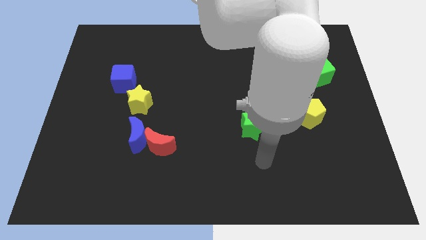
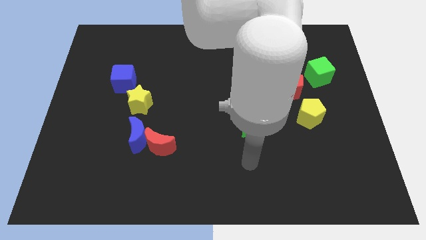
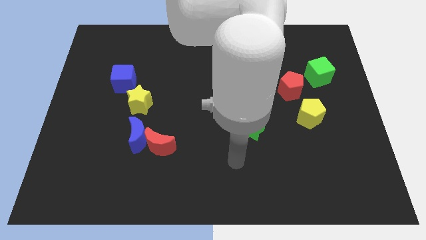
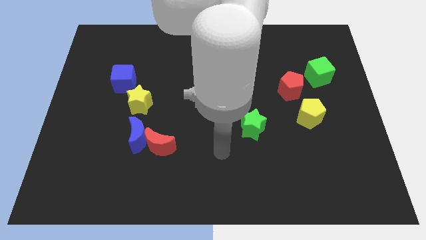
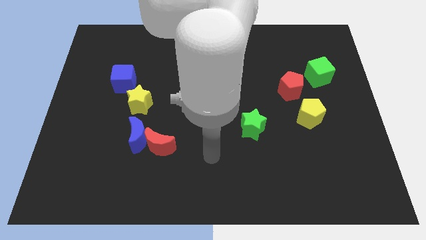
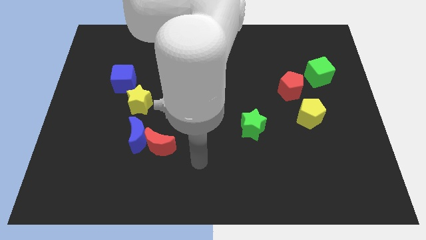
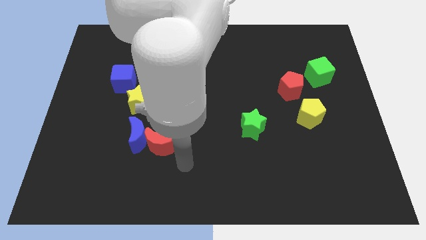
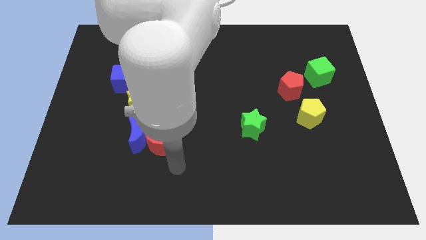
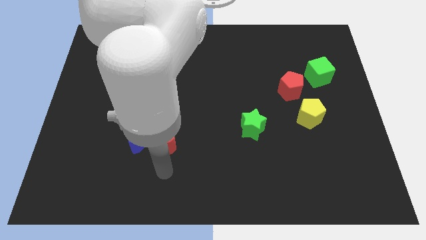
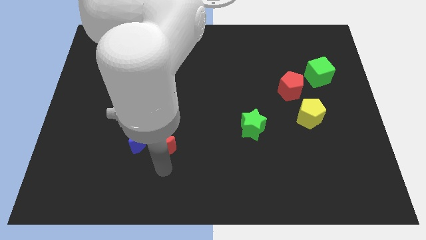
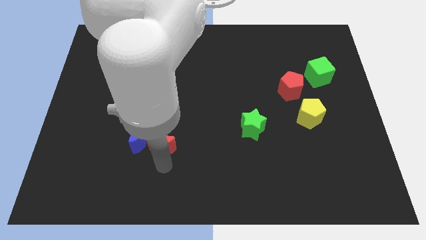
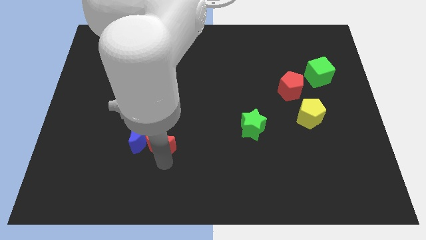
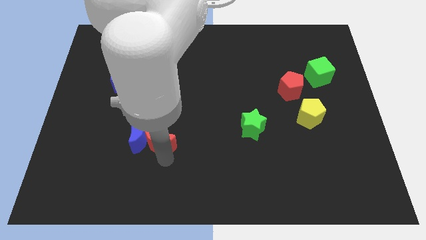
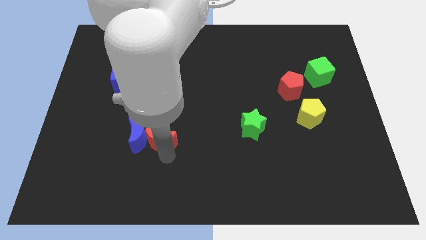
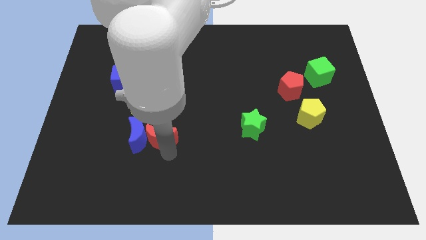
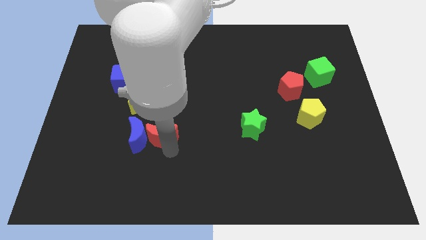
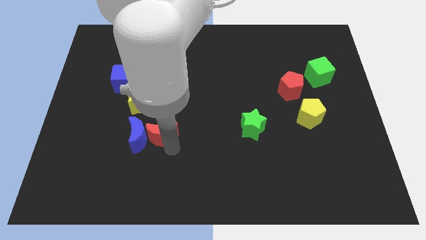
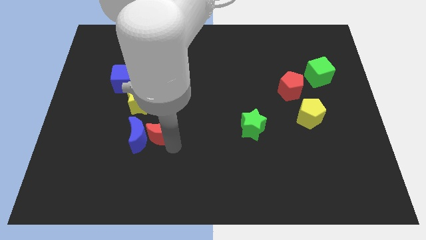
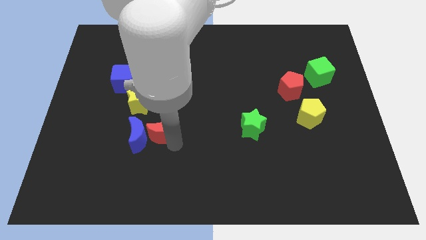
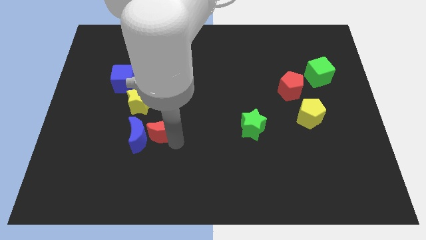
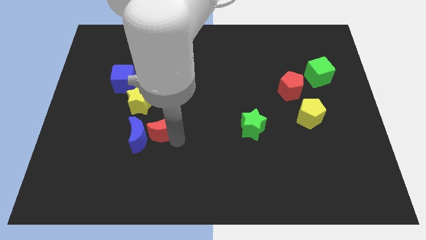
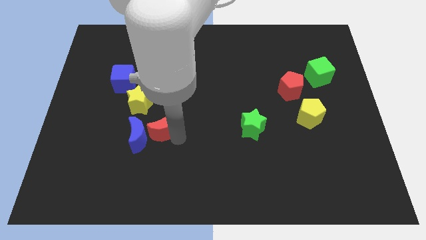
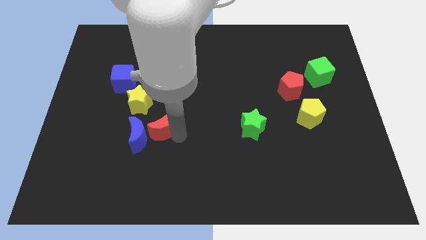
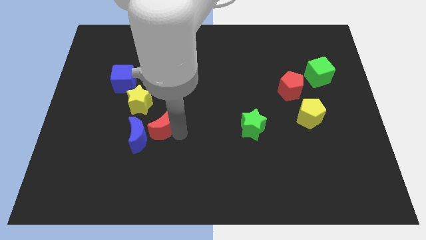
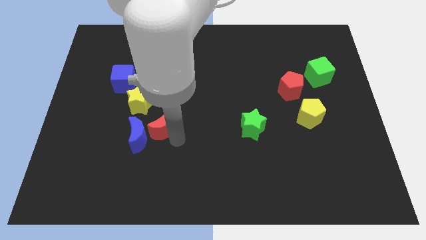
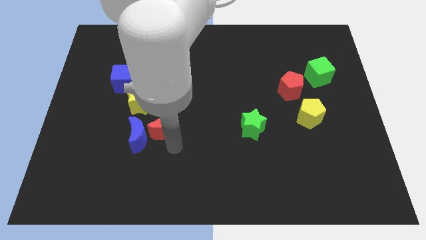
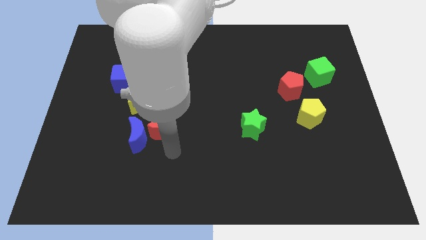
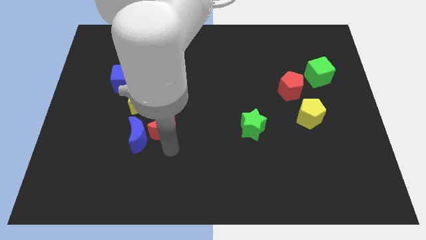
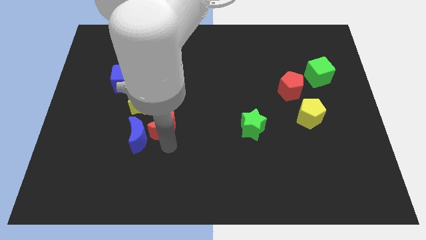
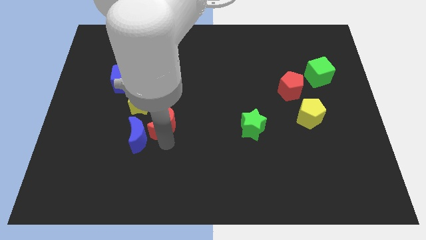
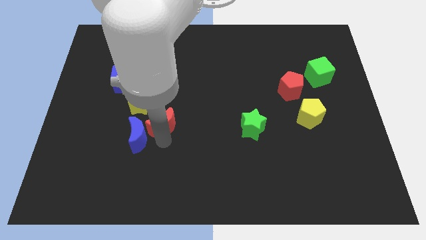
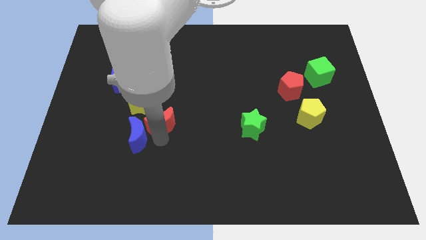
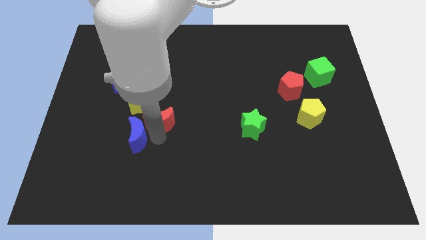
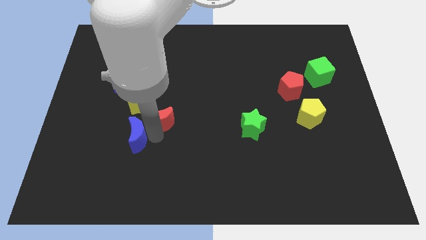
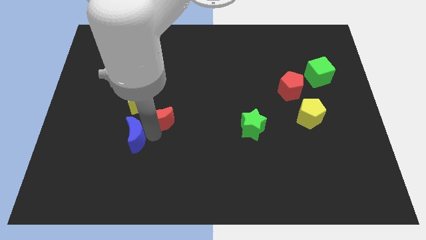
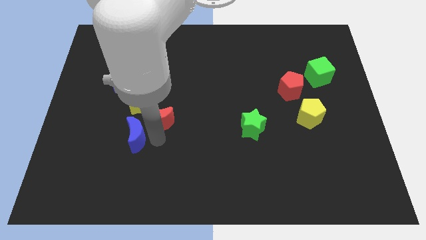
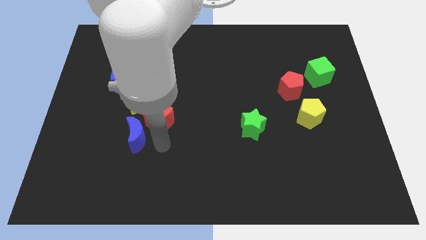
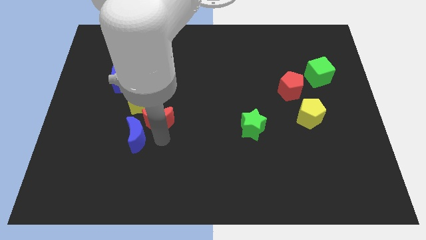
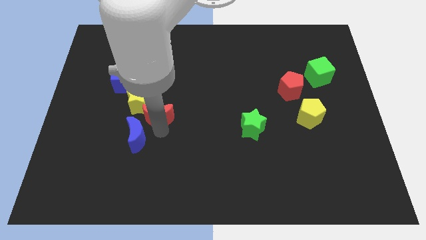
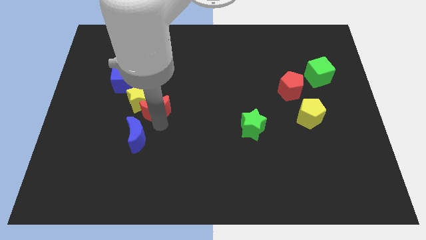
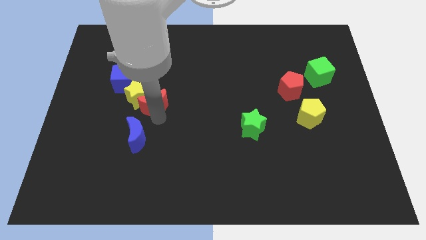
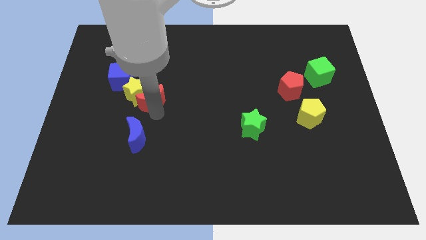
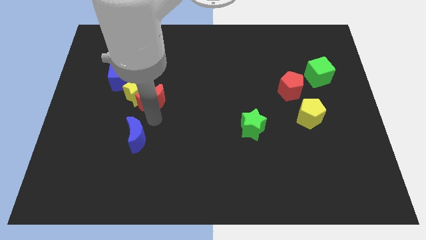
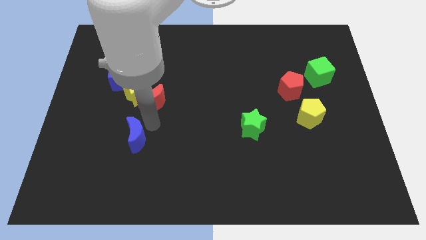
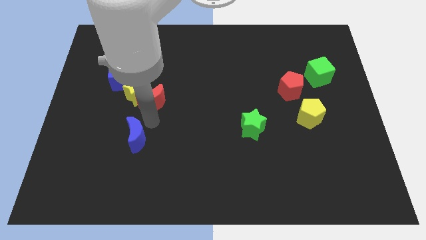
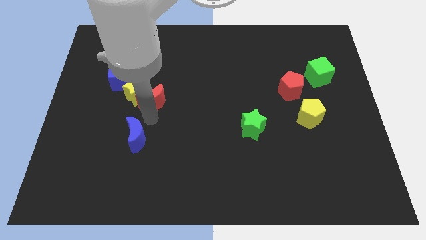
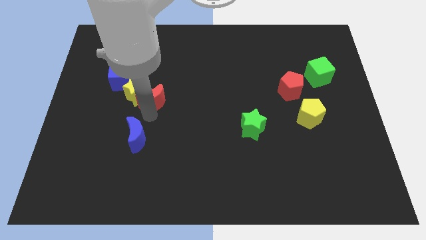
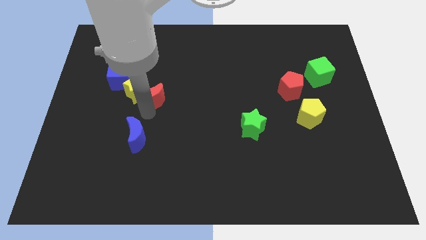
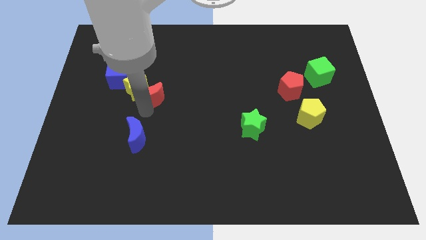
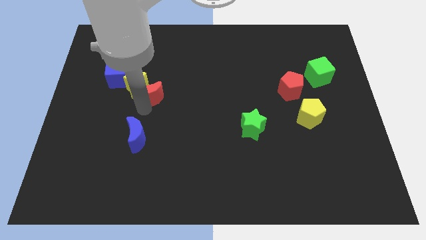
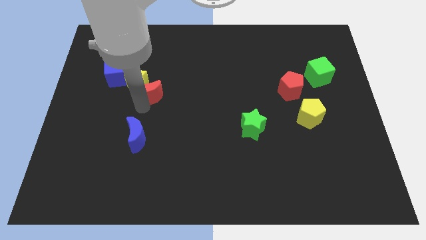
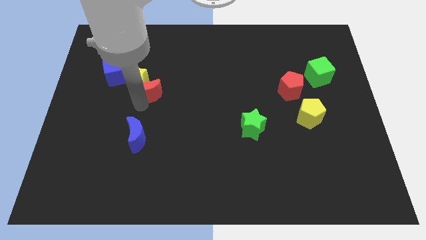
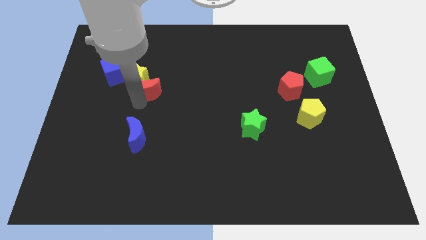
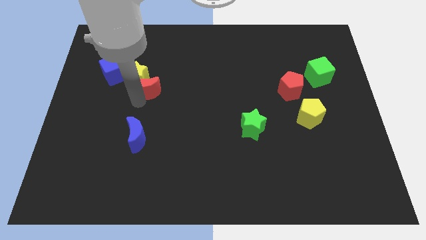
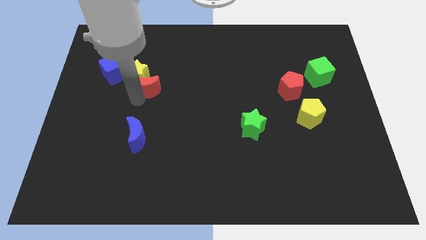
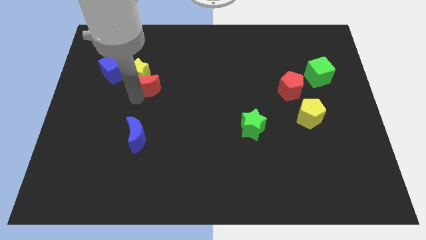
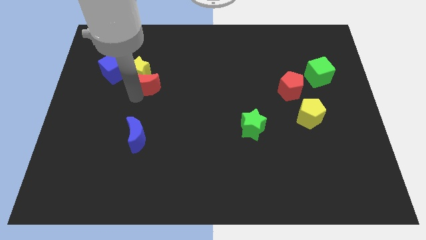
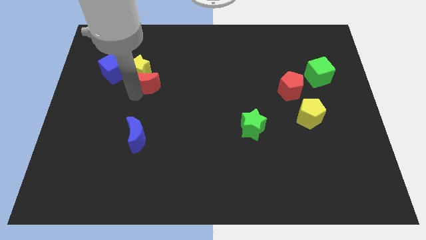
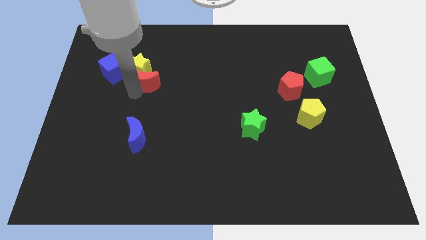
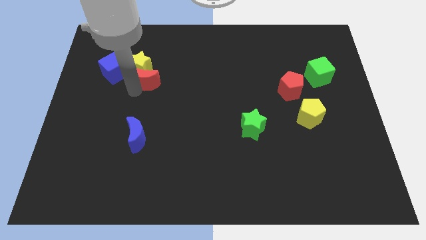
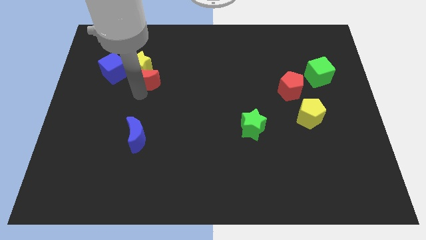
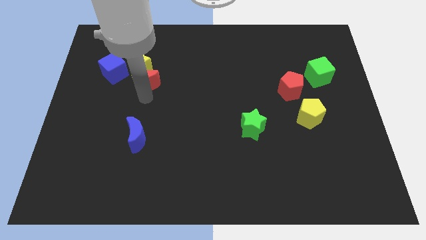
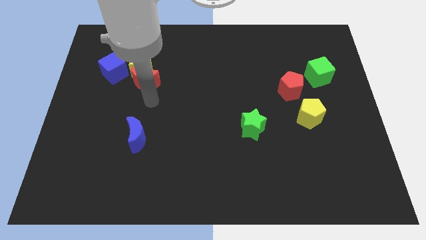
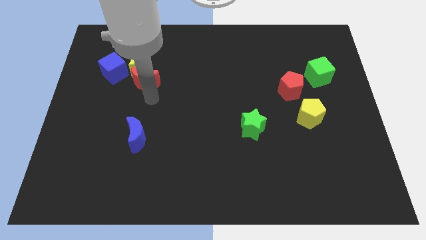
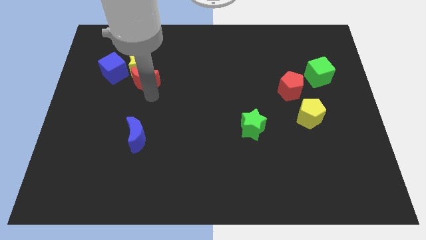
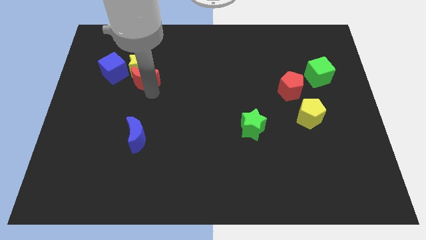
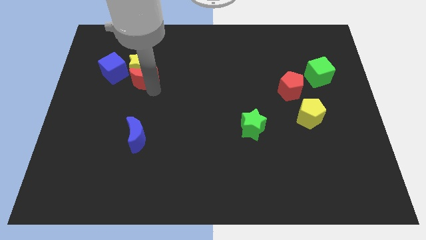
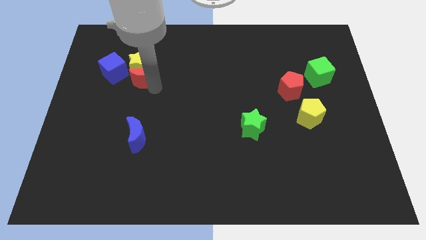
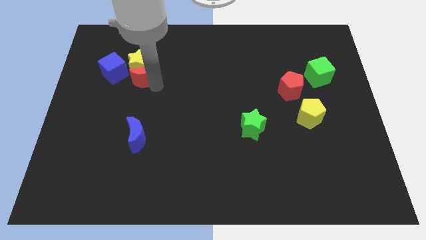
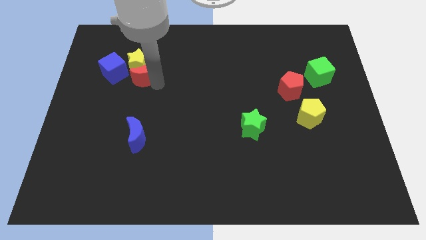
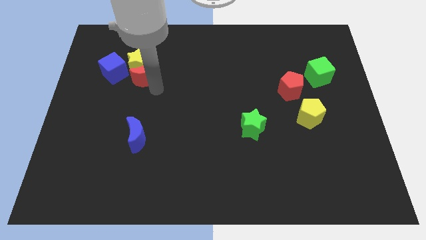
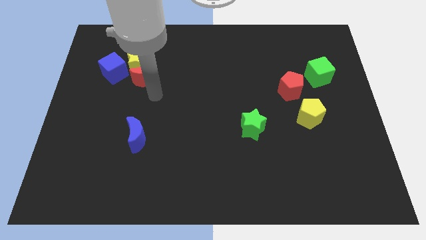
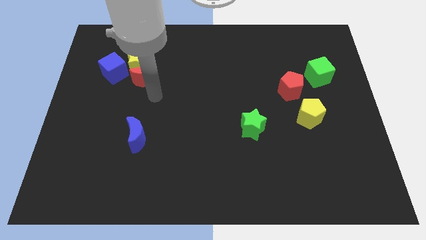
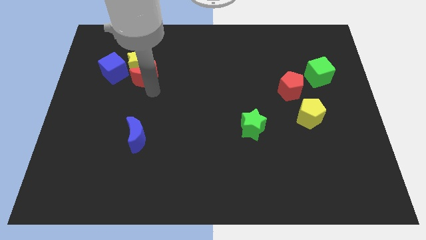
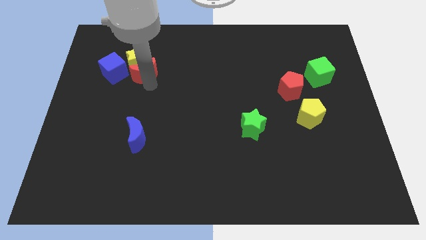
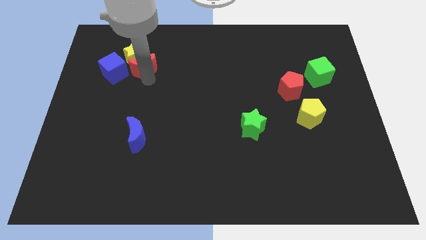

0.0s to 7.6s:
put the red moon to the top right side of the blue cube

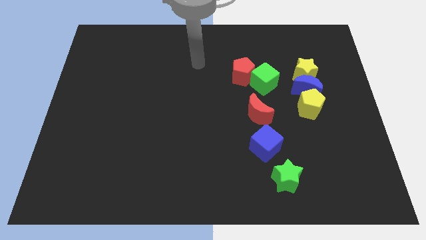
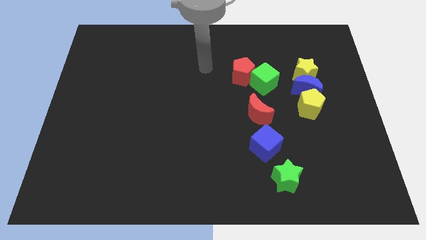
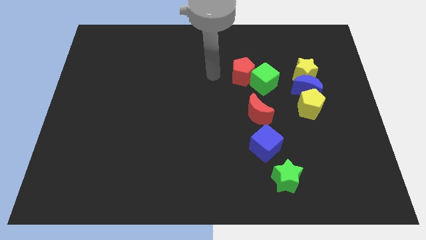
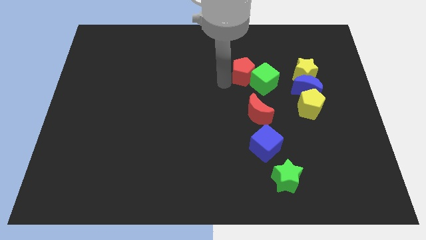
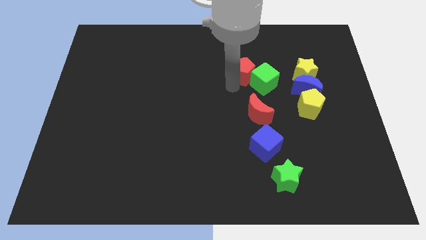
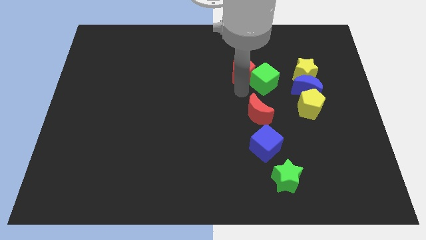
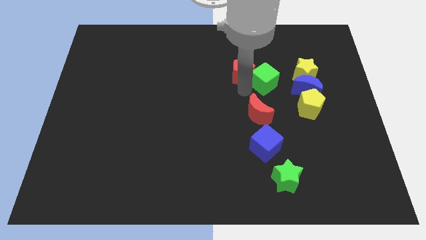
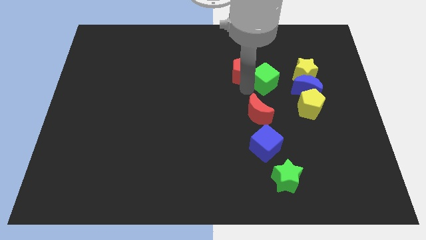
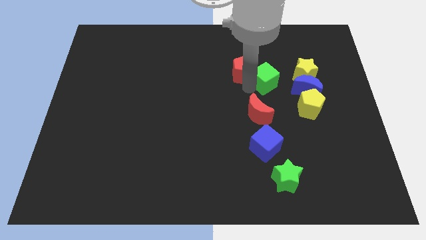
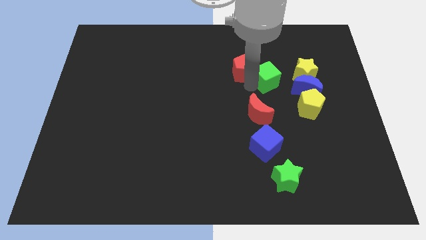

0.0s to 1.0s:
push the green cube to the top left of the blue moon
